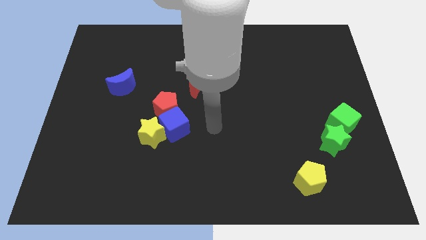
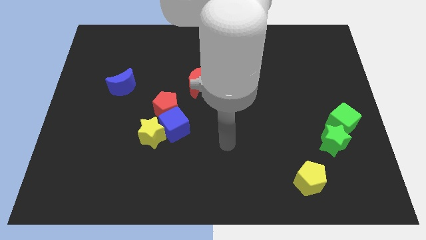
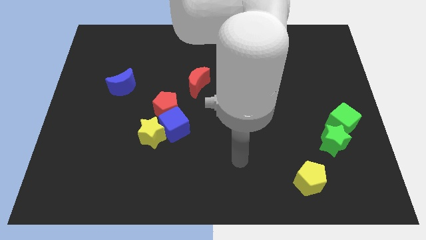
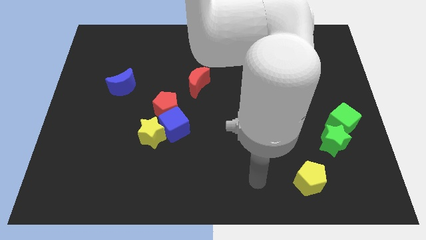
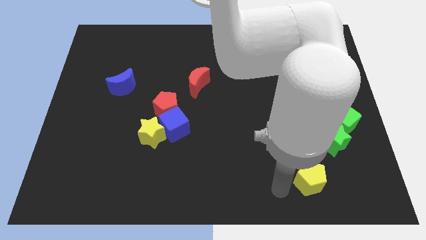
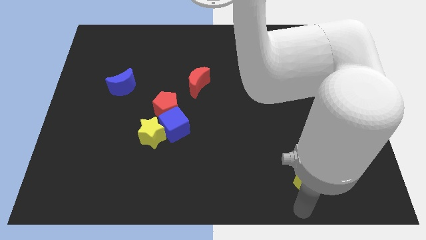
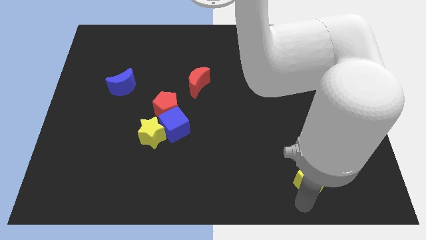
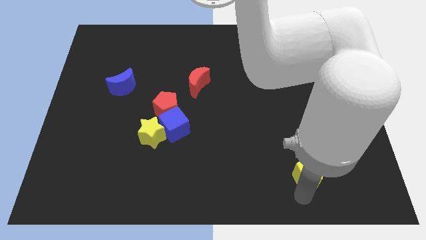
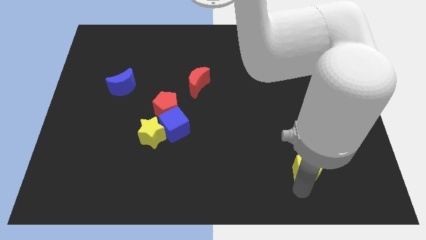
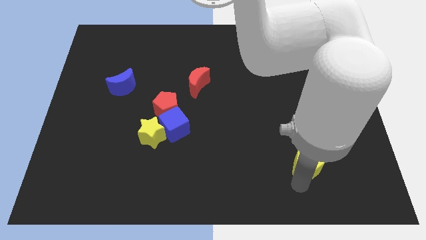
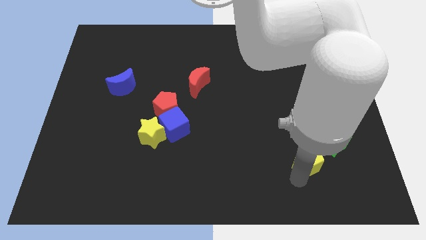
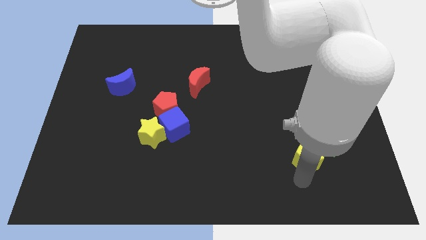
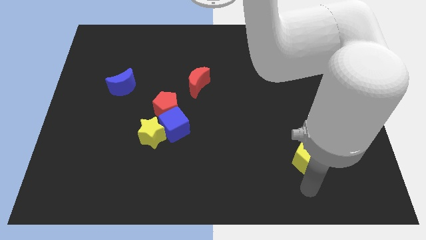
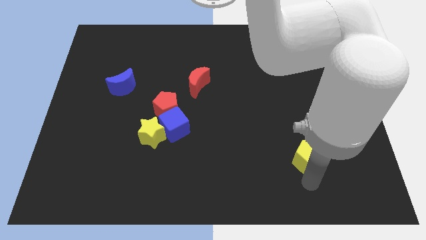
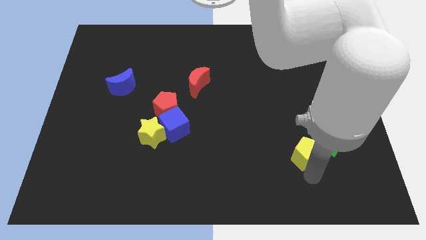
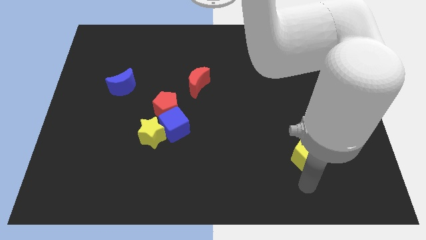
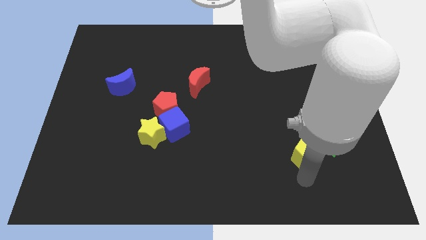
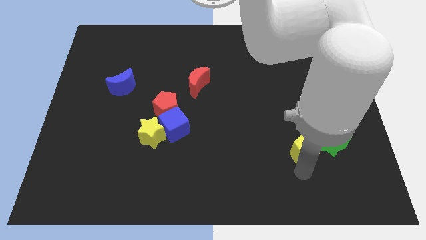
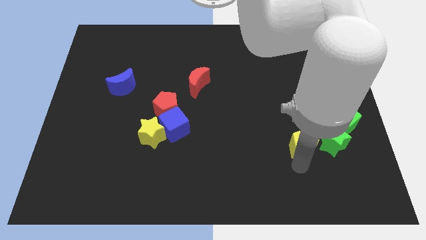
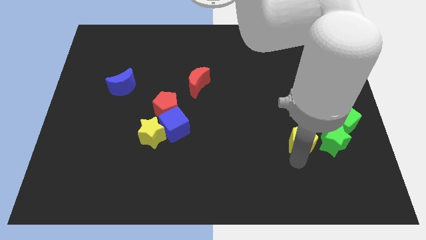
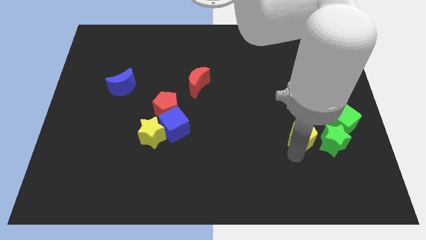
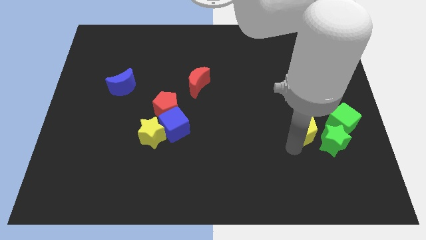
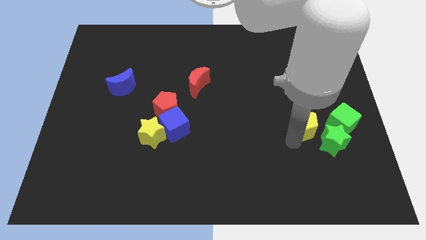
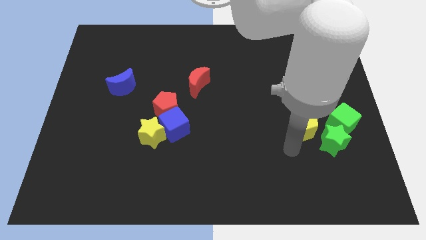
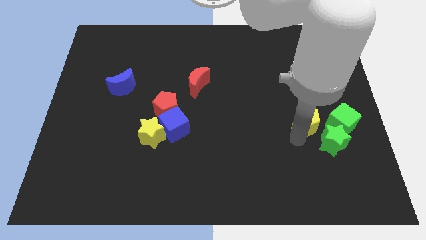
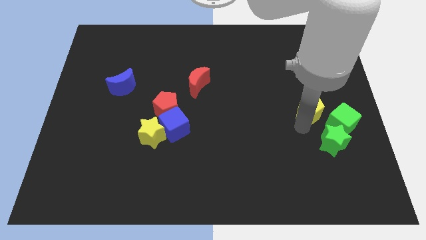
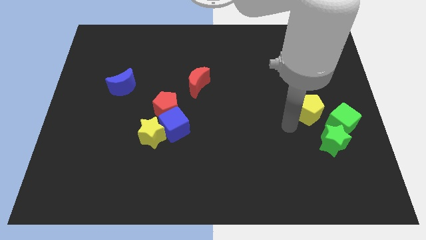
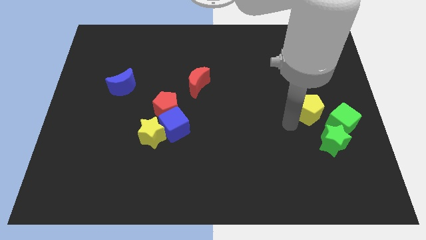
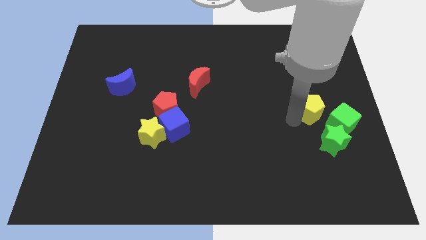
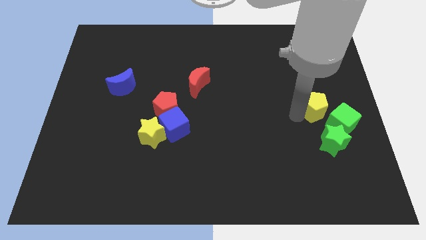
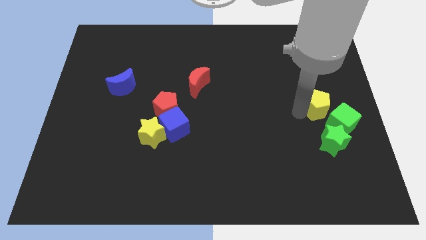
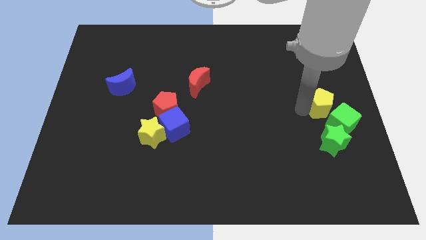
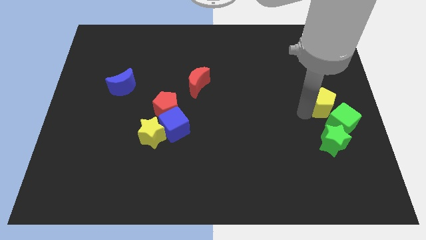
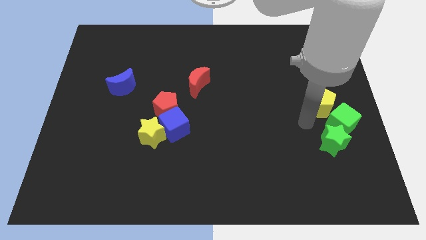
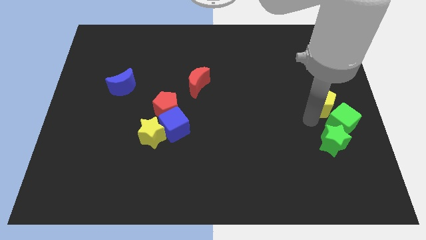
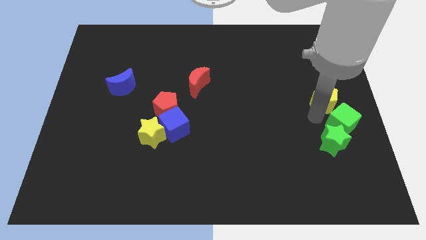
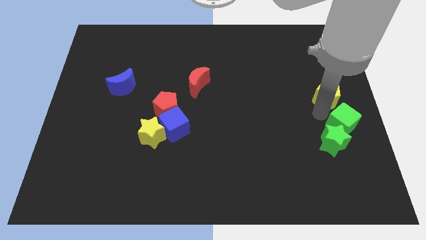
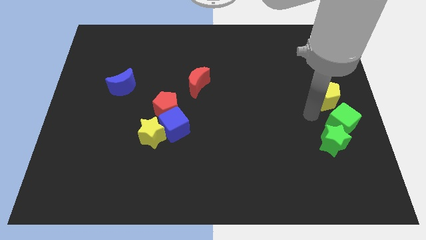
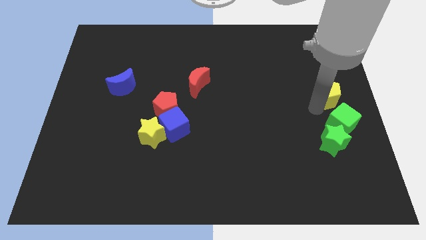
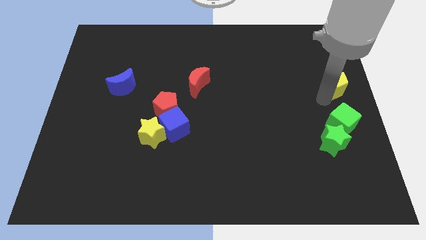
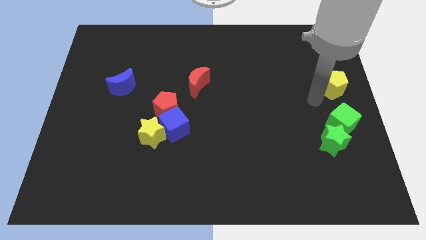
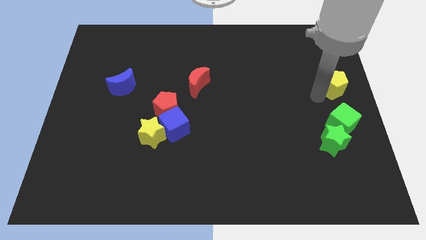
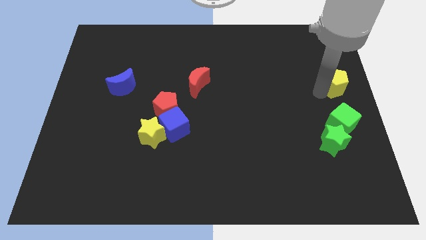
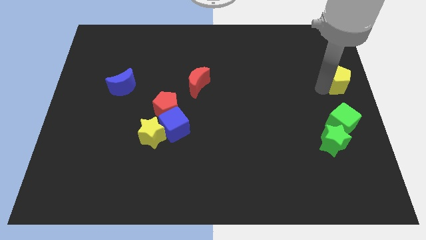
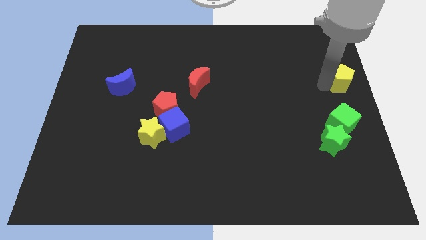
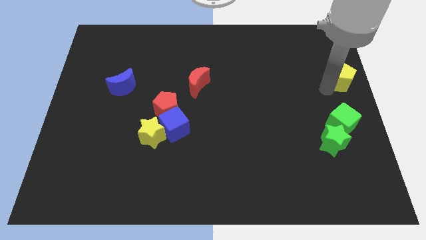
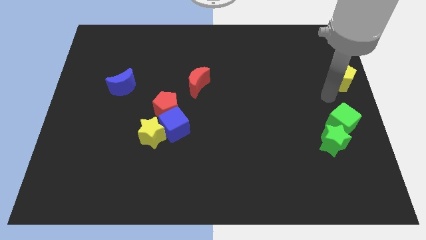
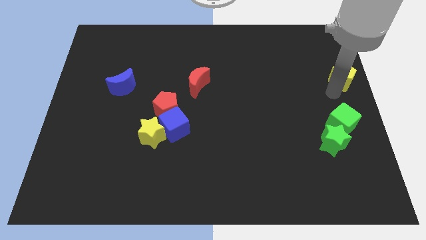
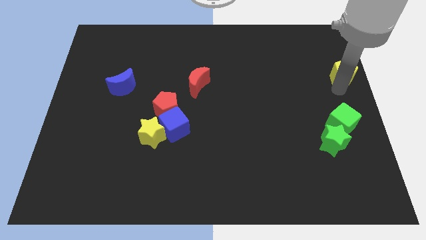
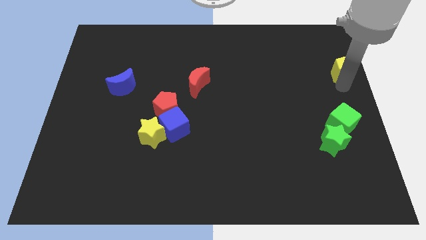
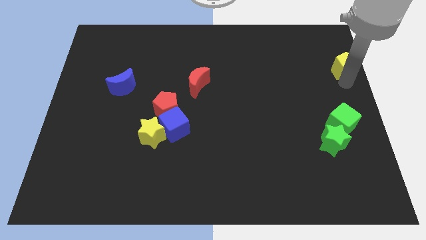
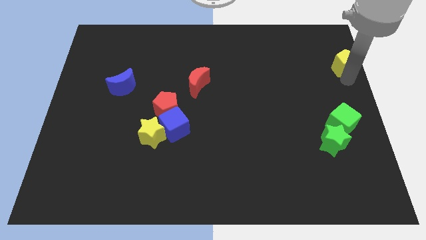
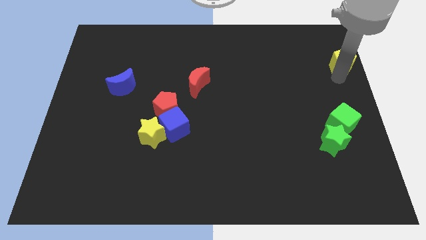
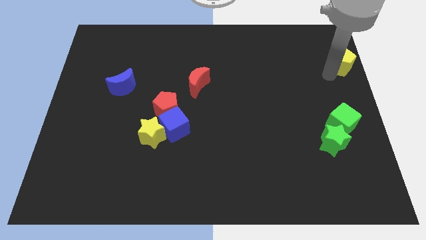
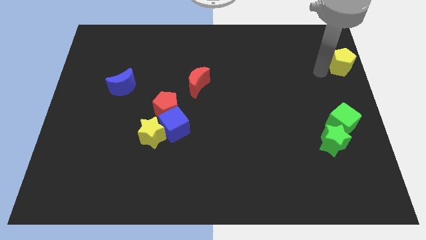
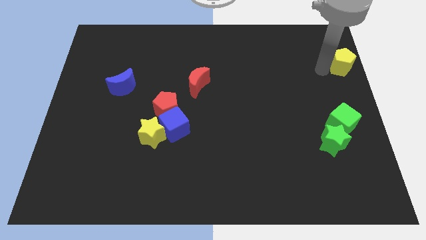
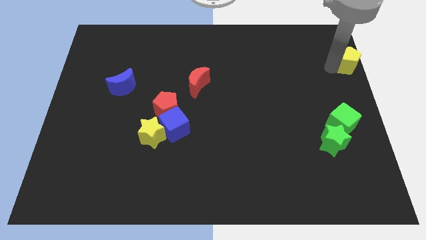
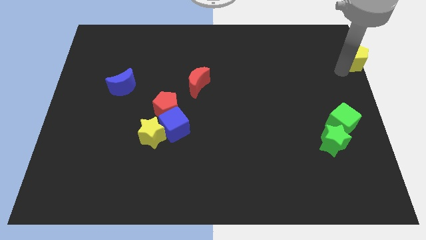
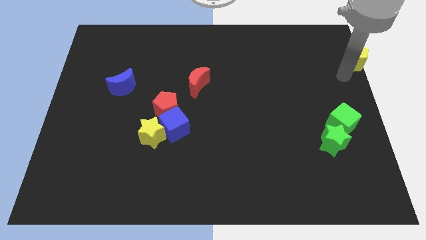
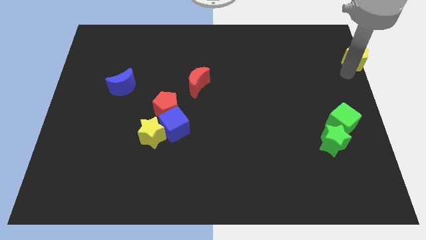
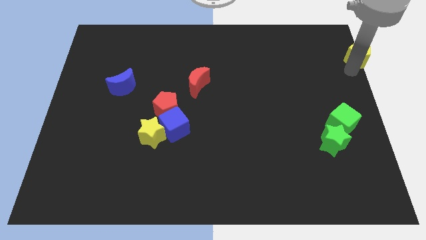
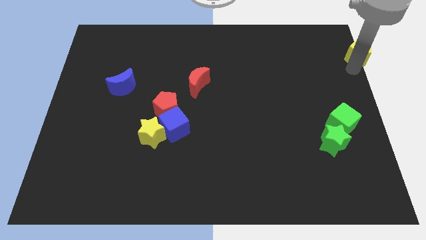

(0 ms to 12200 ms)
slide the yellow pentagon to the upper right corner
